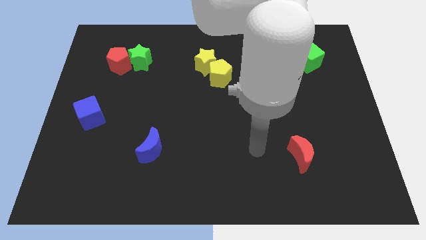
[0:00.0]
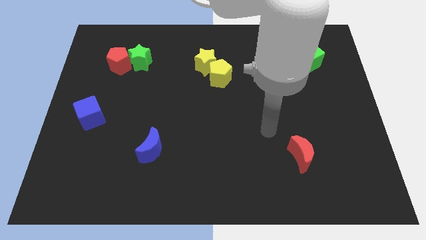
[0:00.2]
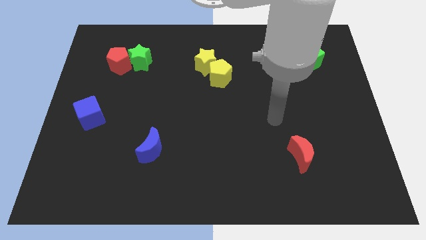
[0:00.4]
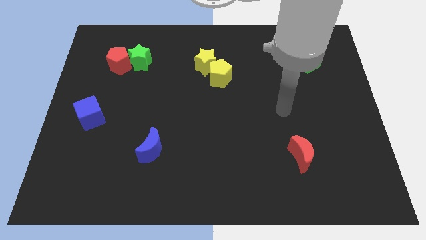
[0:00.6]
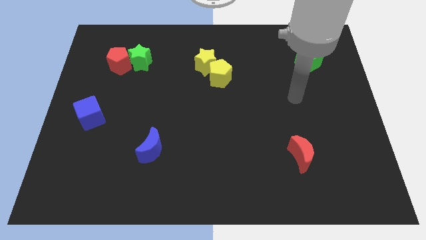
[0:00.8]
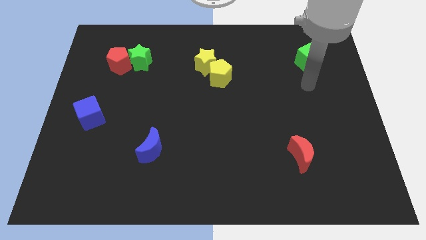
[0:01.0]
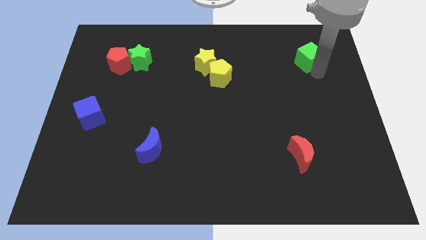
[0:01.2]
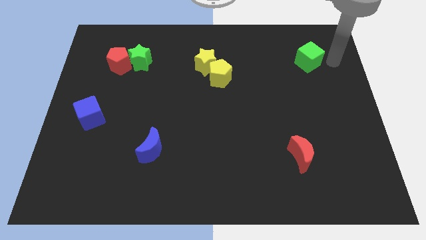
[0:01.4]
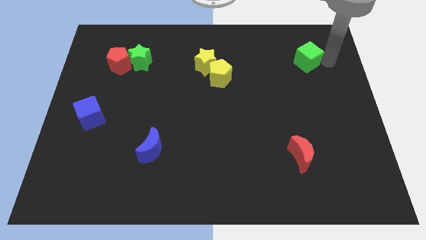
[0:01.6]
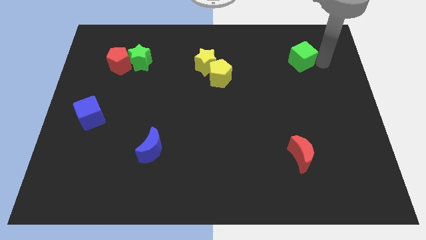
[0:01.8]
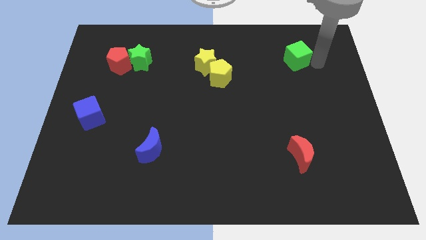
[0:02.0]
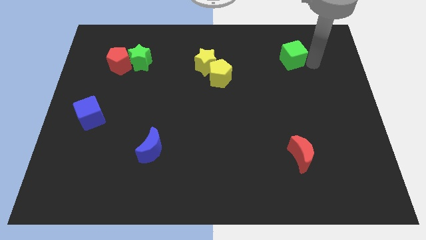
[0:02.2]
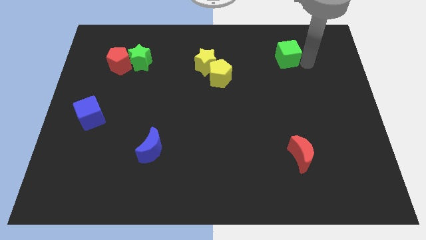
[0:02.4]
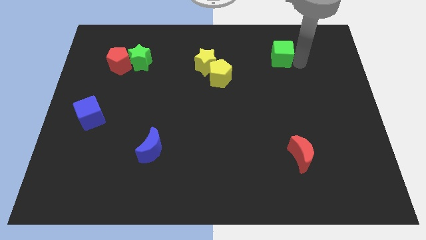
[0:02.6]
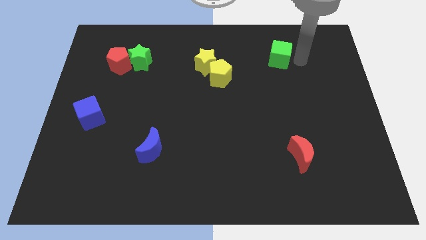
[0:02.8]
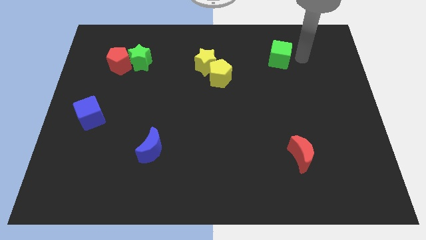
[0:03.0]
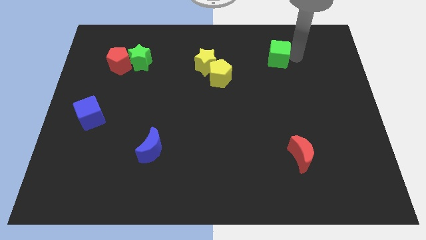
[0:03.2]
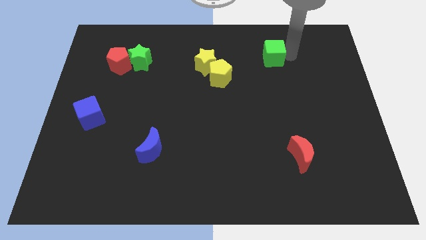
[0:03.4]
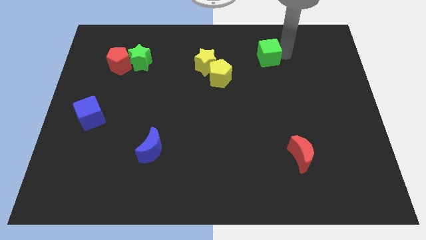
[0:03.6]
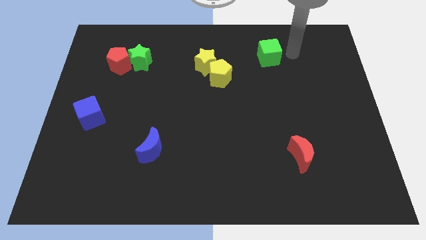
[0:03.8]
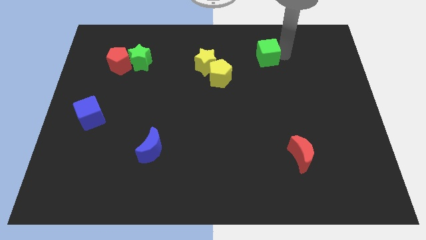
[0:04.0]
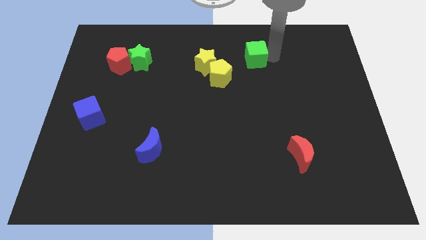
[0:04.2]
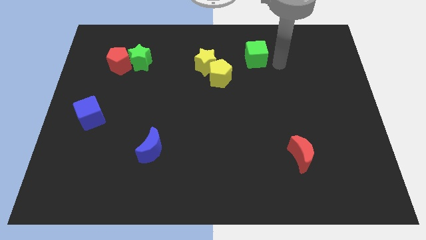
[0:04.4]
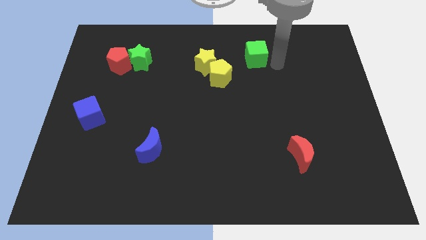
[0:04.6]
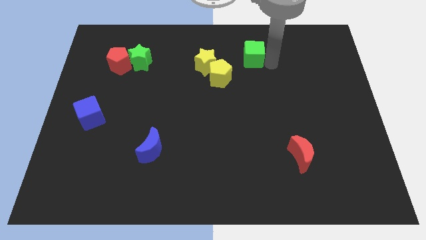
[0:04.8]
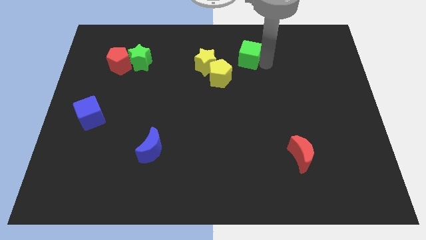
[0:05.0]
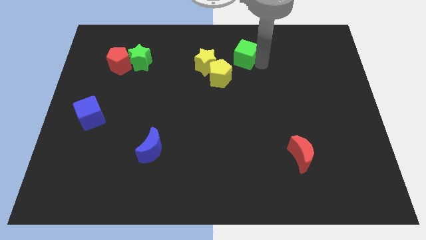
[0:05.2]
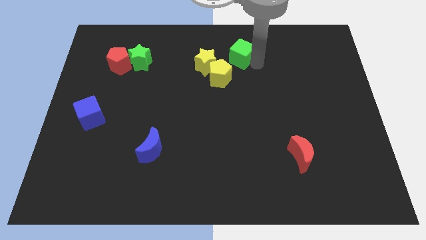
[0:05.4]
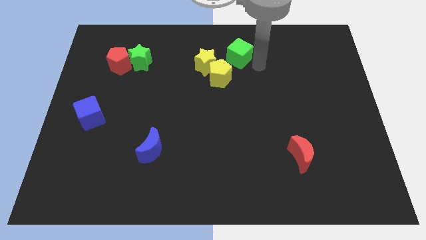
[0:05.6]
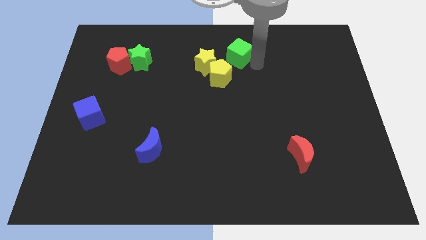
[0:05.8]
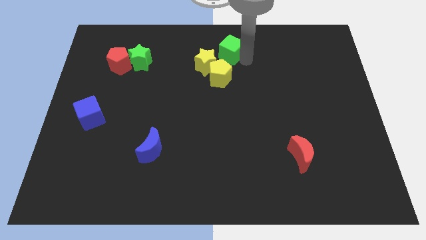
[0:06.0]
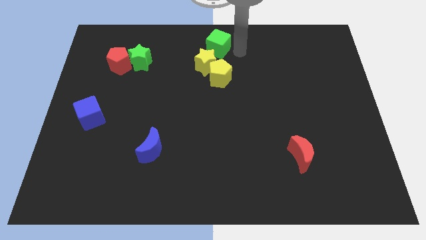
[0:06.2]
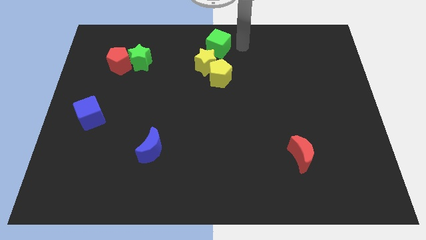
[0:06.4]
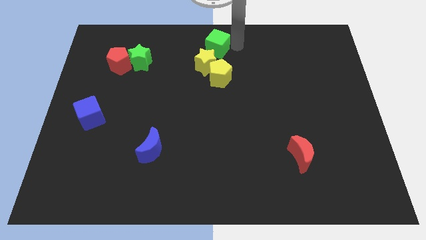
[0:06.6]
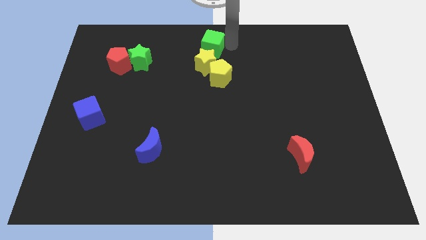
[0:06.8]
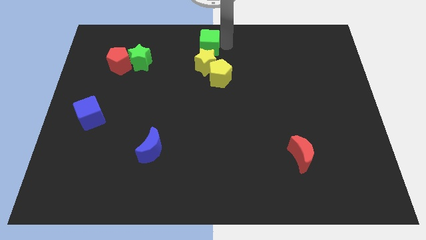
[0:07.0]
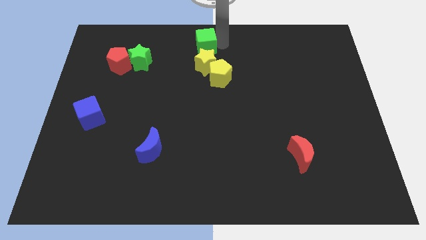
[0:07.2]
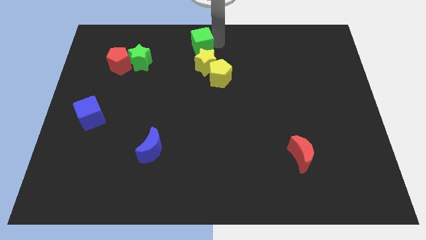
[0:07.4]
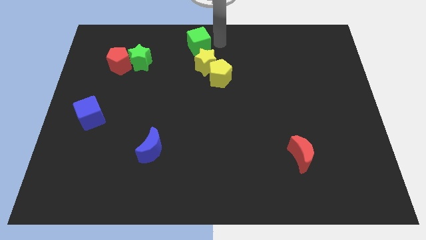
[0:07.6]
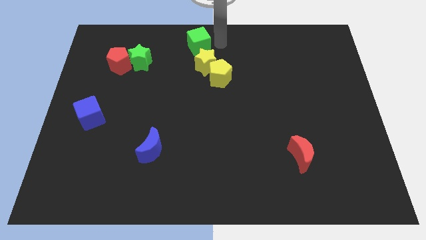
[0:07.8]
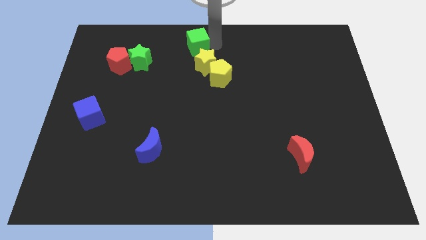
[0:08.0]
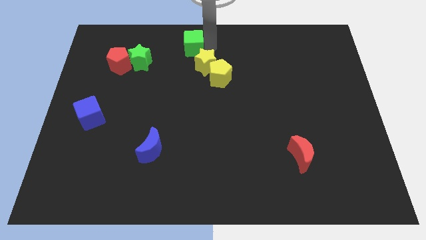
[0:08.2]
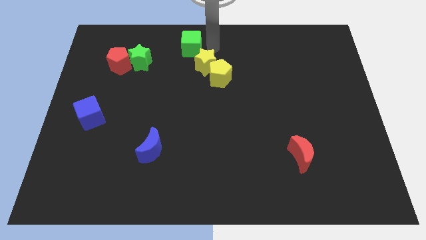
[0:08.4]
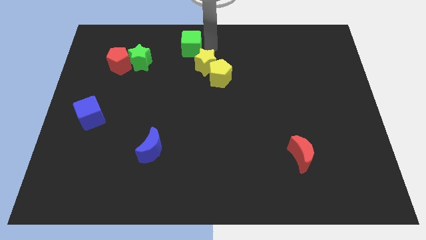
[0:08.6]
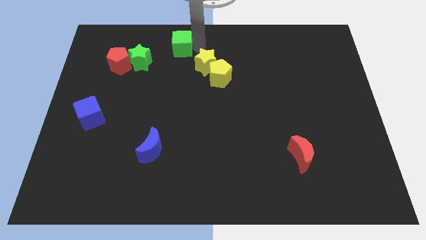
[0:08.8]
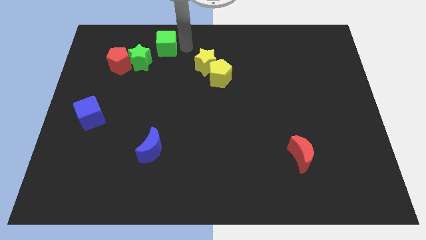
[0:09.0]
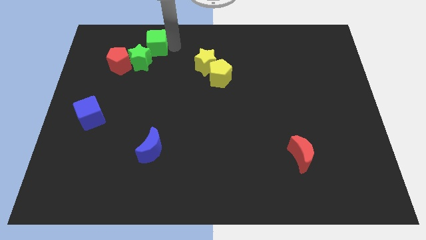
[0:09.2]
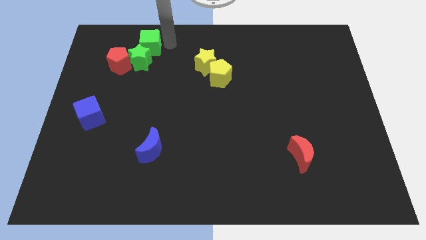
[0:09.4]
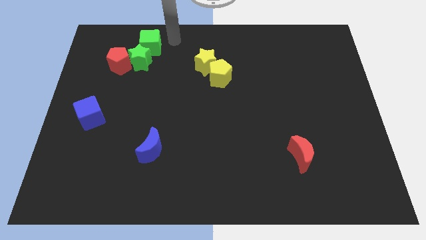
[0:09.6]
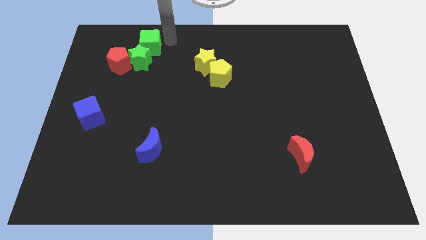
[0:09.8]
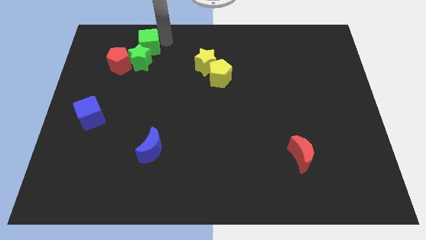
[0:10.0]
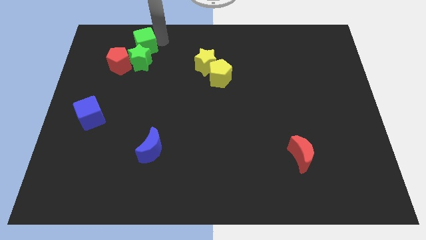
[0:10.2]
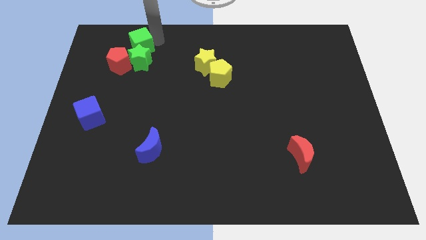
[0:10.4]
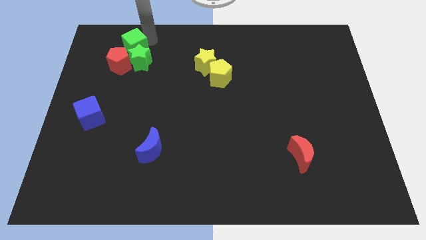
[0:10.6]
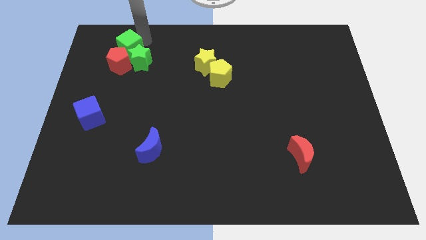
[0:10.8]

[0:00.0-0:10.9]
push the green cube towards the red pentagon

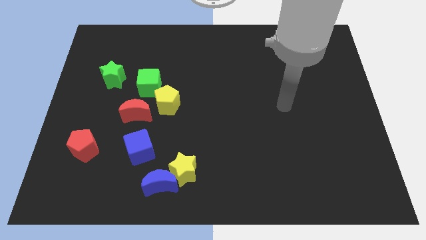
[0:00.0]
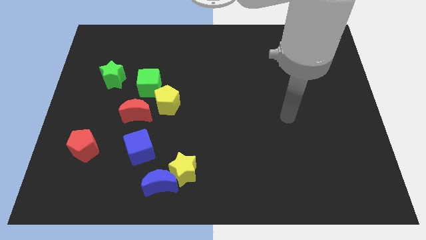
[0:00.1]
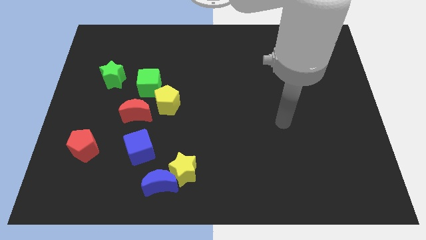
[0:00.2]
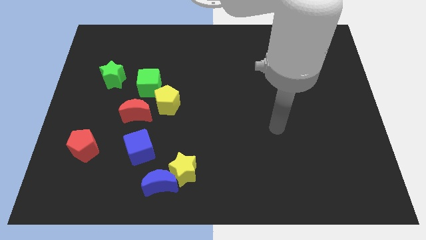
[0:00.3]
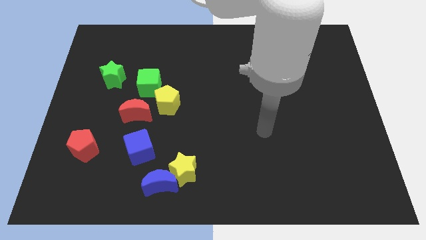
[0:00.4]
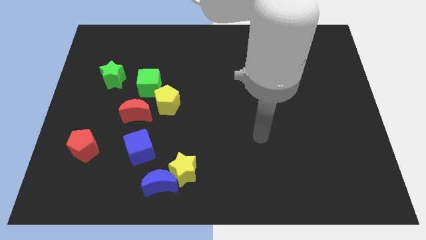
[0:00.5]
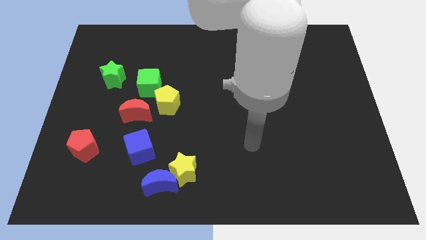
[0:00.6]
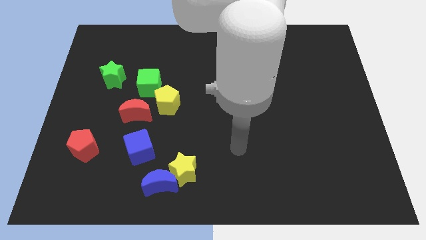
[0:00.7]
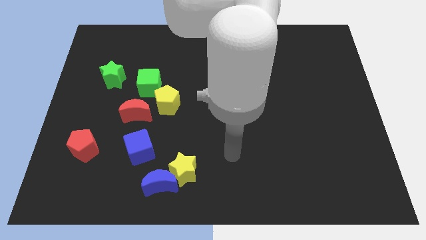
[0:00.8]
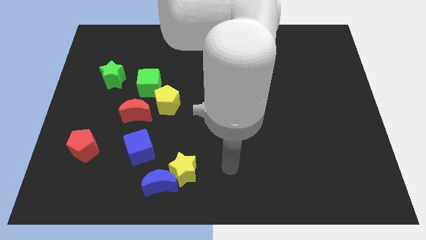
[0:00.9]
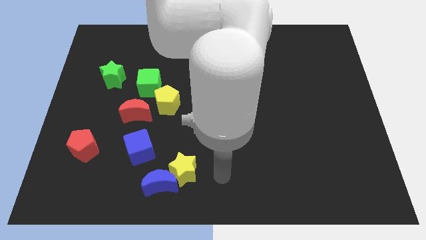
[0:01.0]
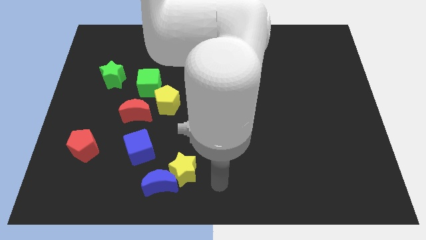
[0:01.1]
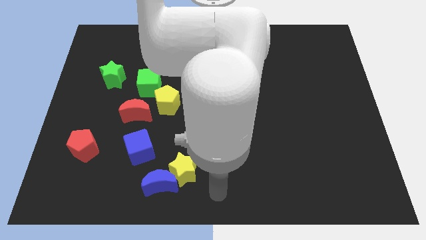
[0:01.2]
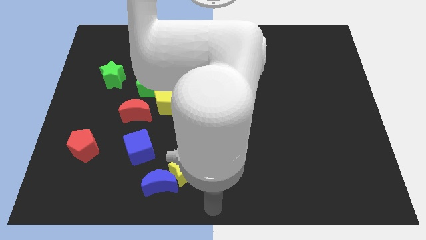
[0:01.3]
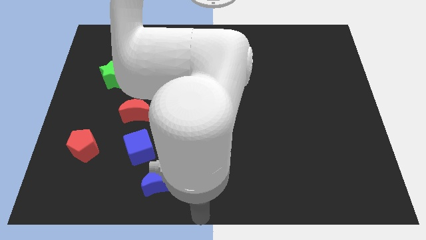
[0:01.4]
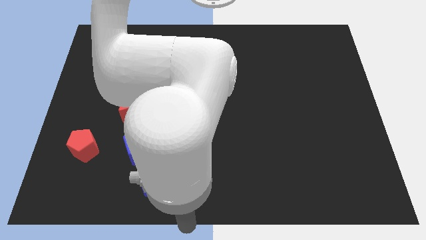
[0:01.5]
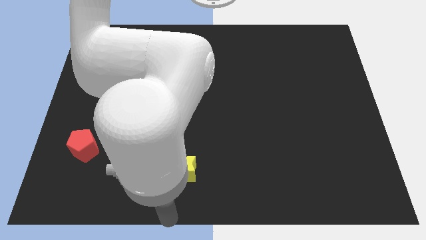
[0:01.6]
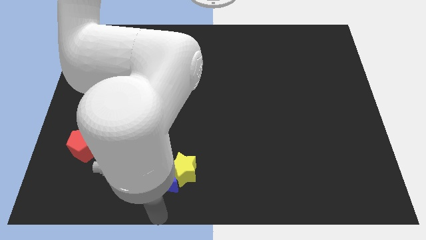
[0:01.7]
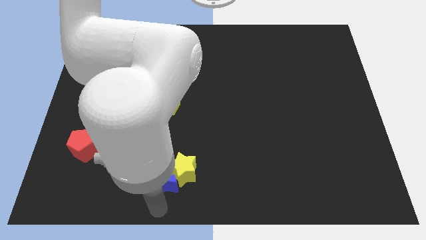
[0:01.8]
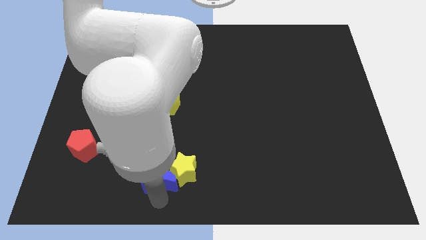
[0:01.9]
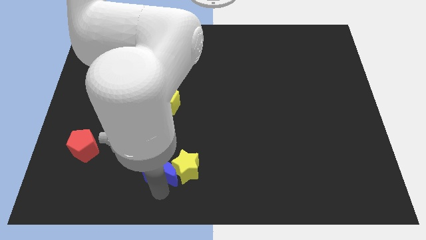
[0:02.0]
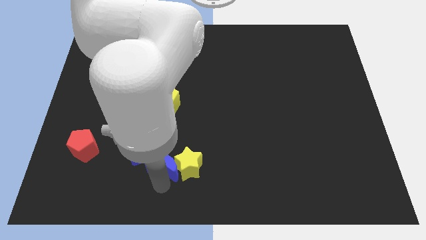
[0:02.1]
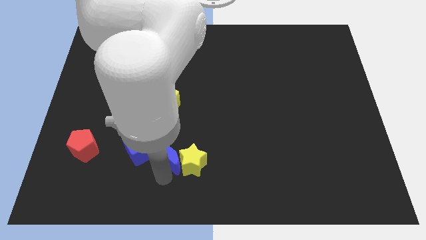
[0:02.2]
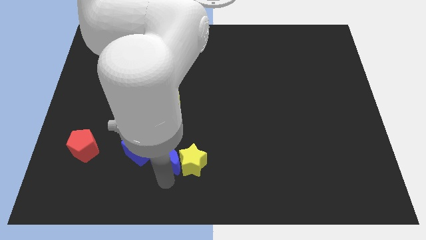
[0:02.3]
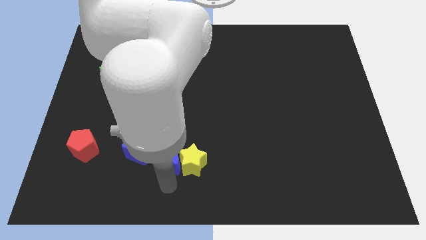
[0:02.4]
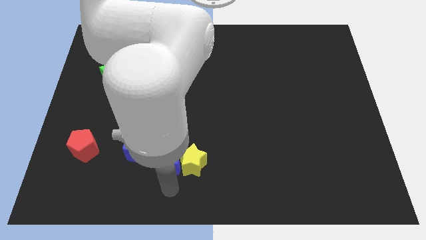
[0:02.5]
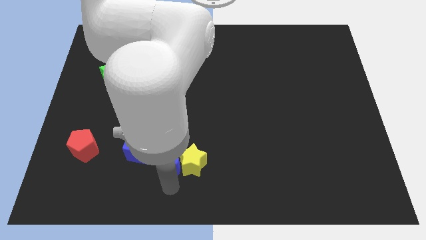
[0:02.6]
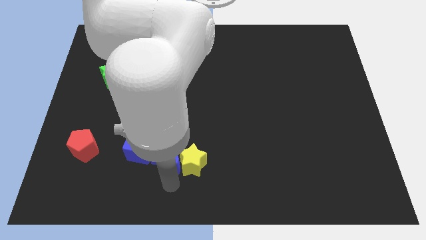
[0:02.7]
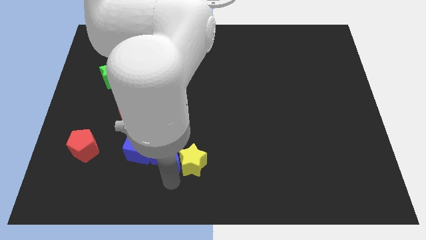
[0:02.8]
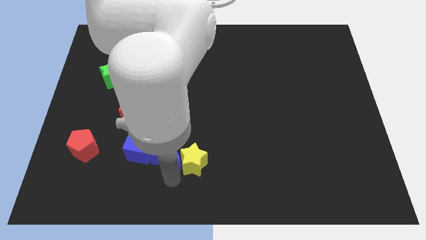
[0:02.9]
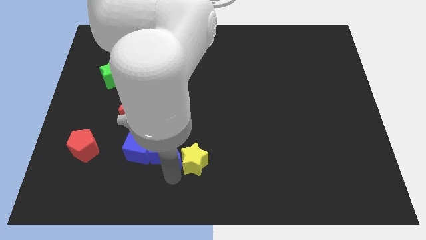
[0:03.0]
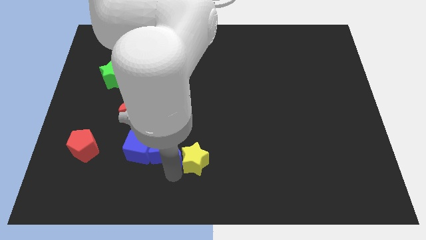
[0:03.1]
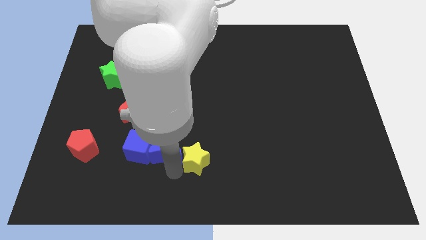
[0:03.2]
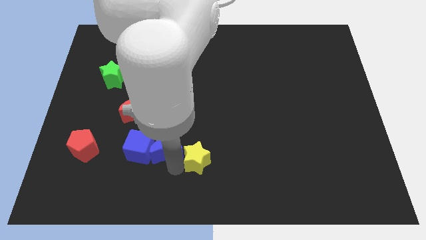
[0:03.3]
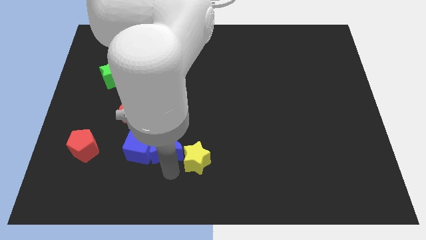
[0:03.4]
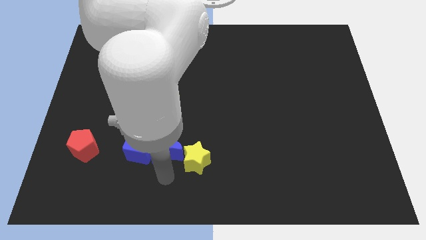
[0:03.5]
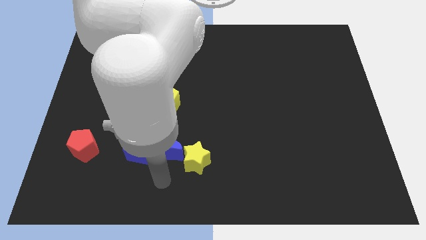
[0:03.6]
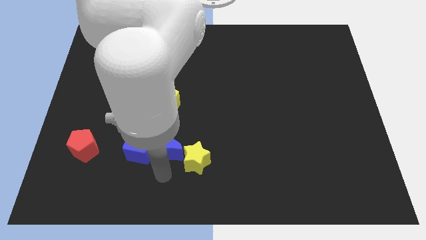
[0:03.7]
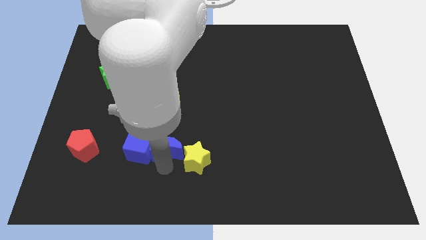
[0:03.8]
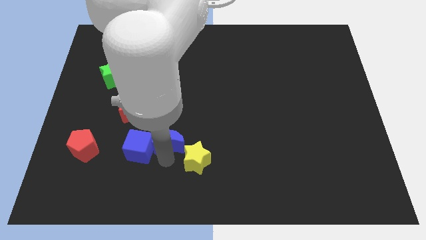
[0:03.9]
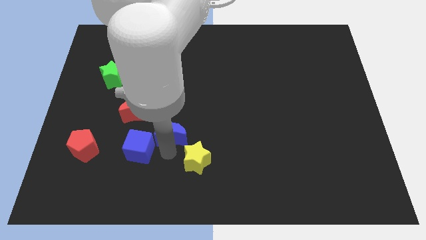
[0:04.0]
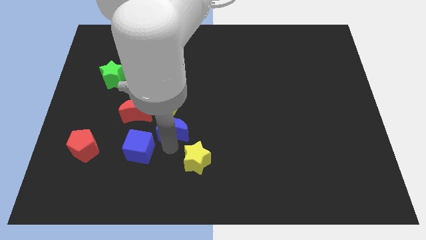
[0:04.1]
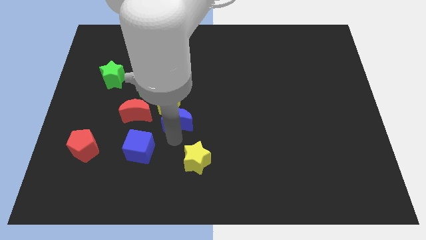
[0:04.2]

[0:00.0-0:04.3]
put the blue moon to the yellow pentagon
